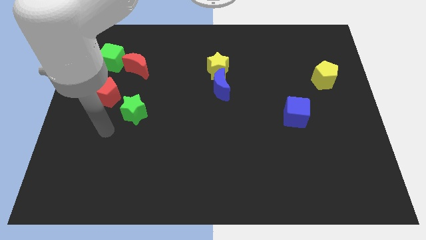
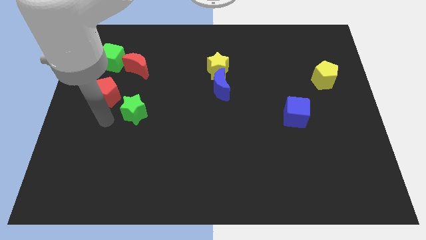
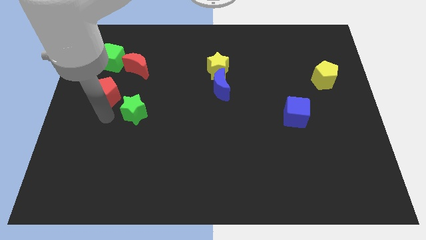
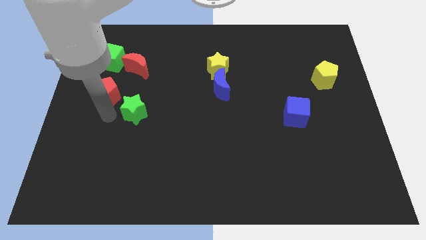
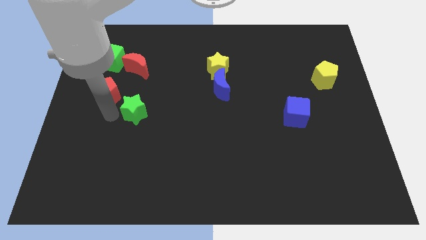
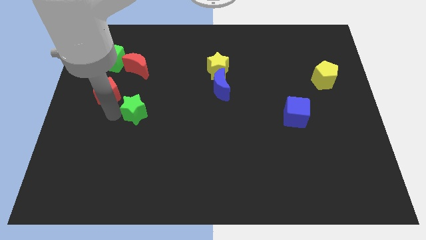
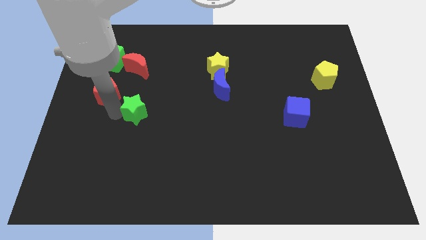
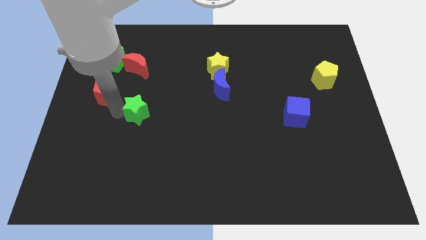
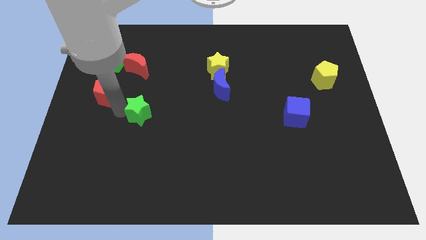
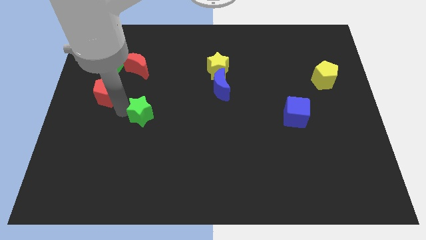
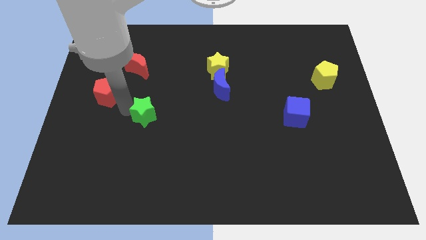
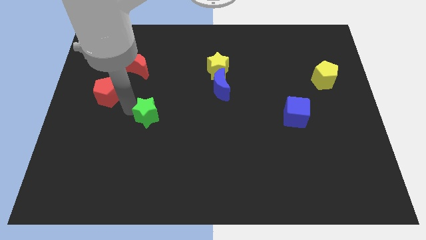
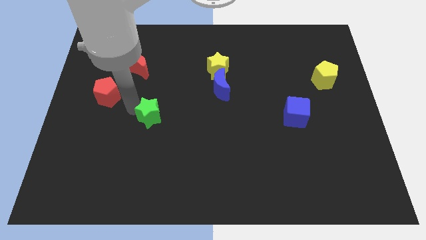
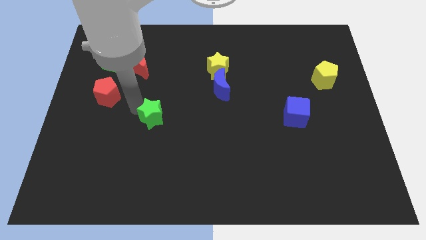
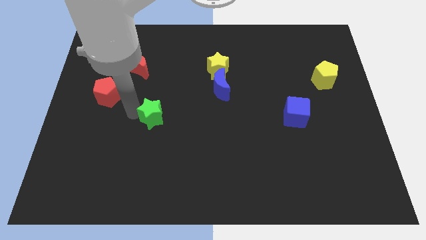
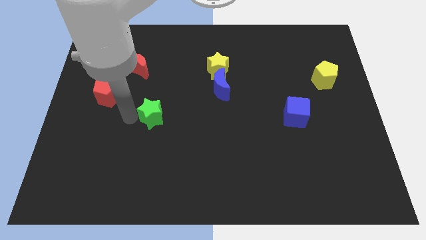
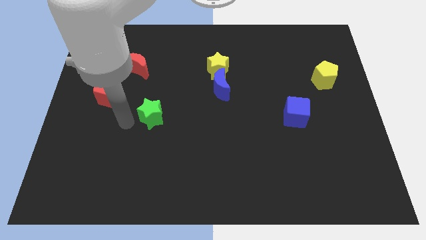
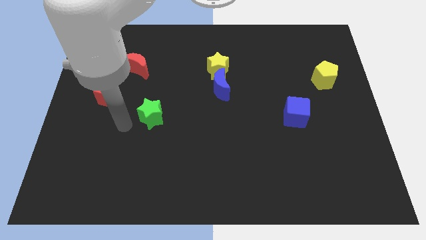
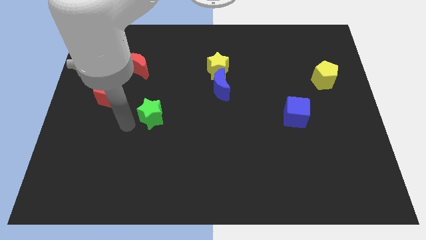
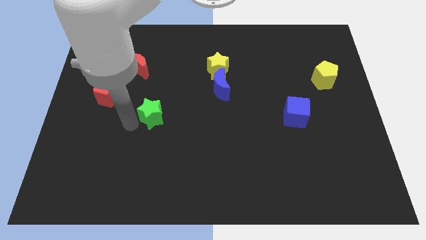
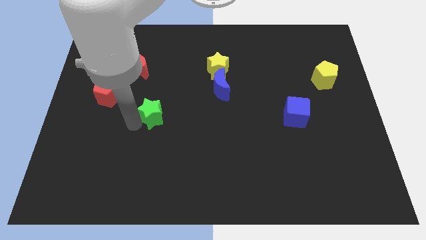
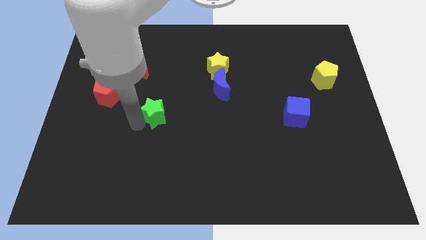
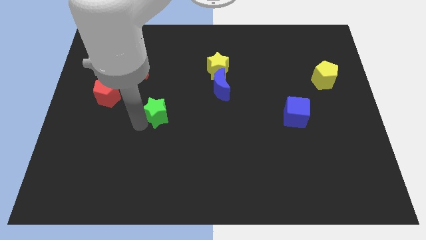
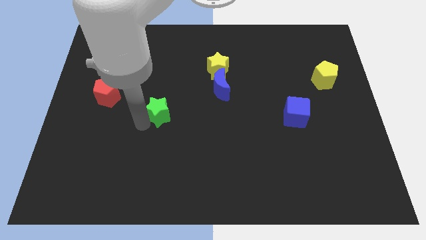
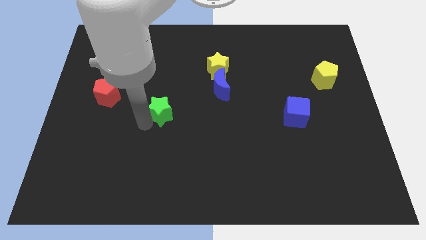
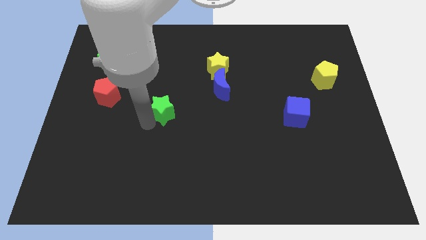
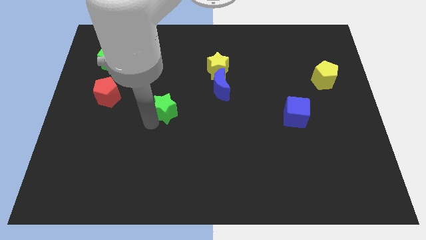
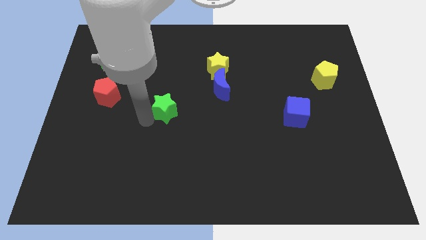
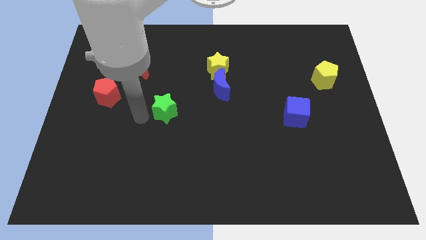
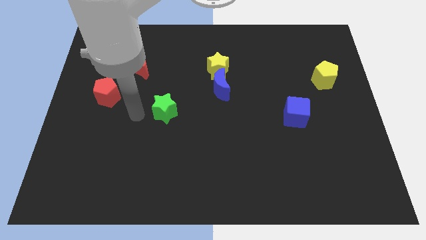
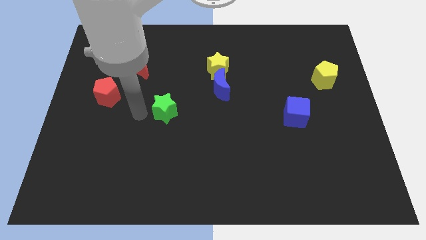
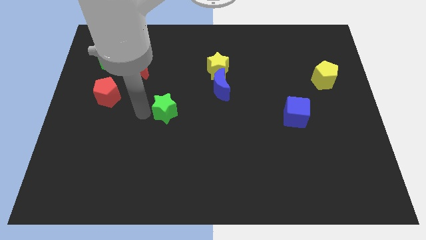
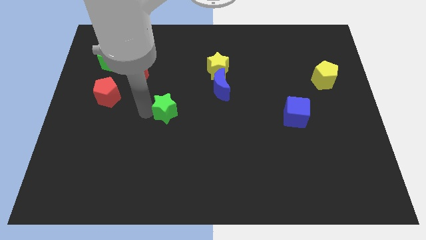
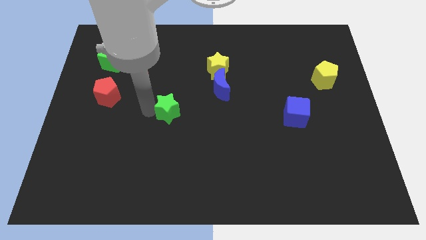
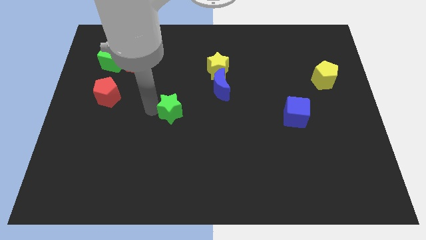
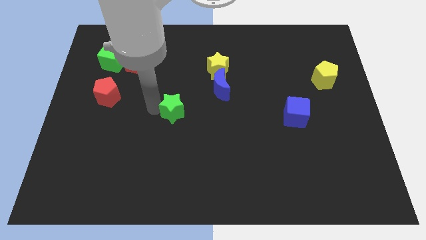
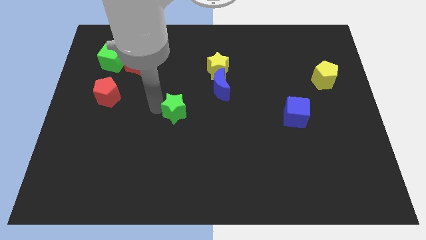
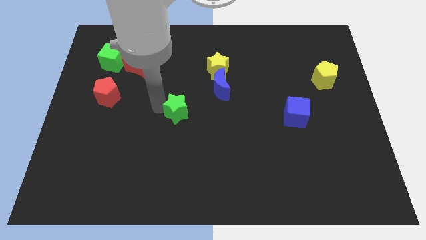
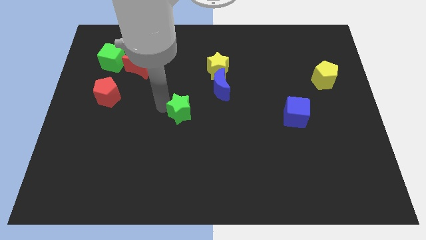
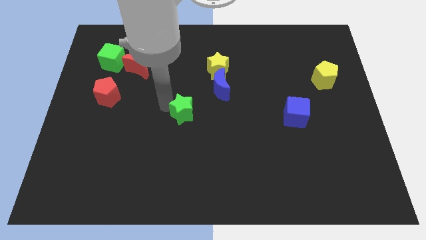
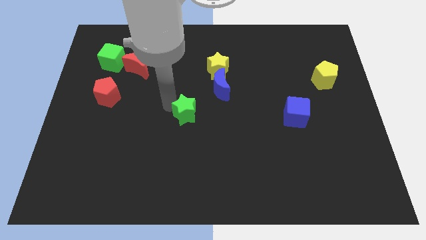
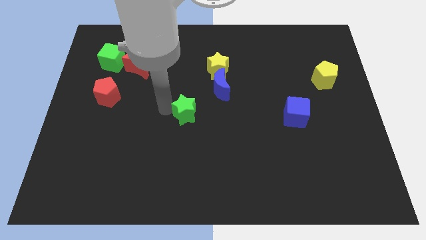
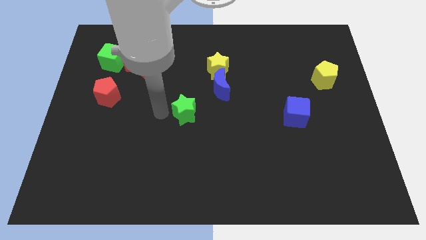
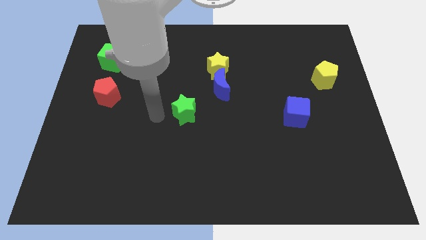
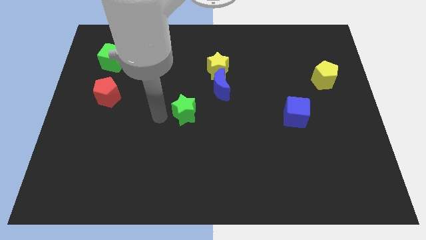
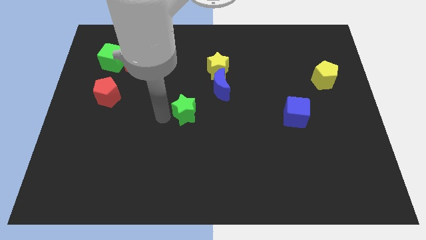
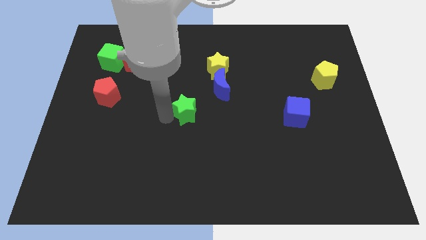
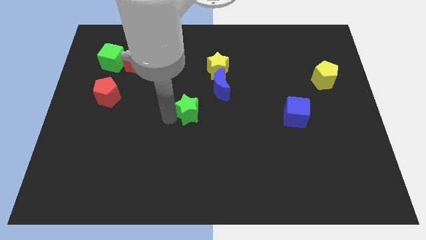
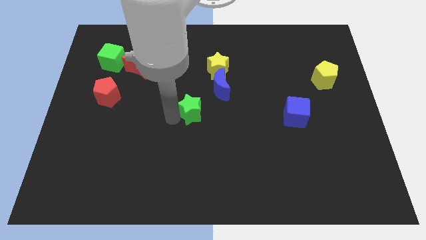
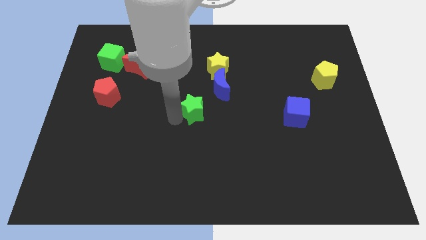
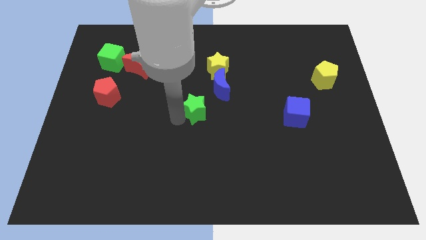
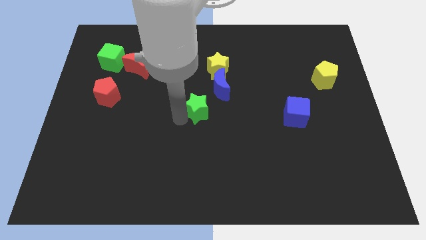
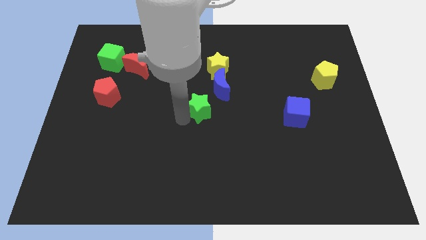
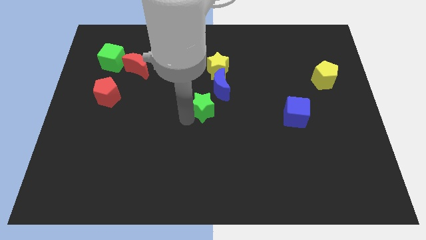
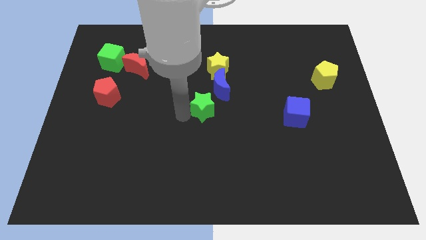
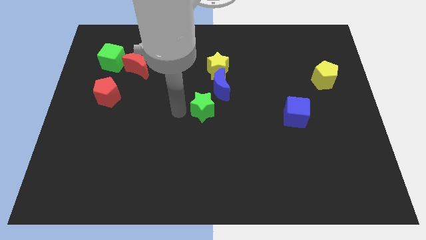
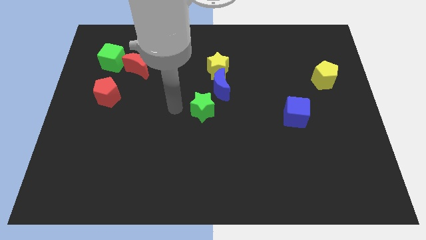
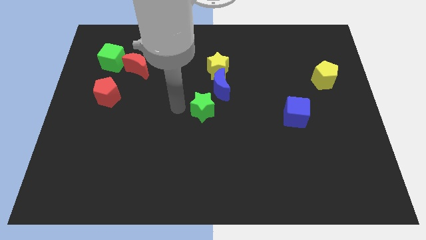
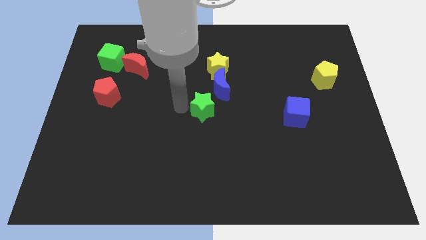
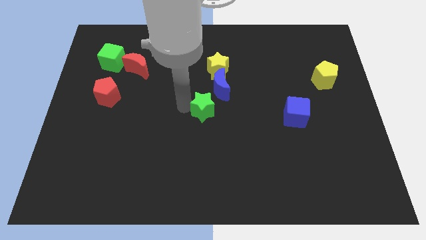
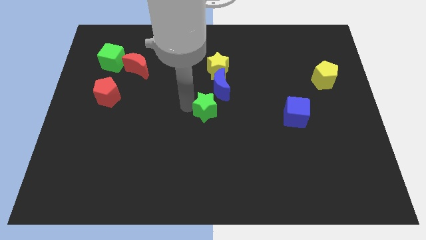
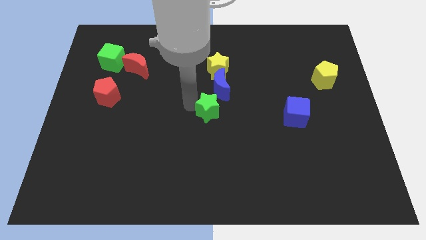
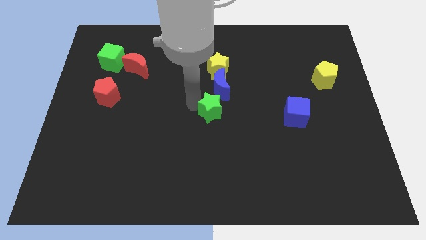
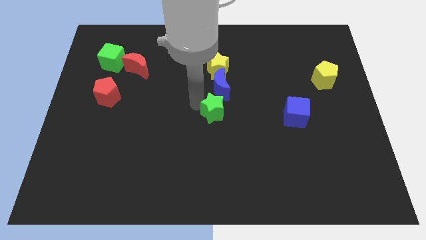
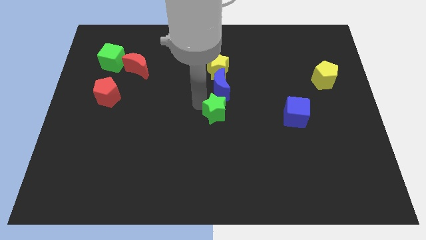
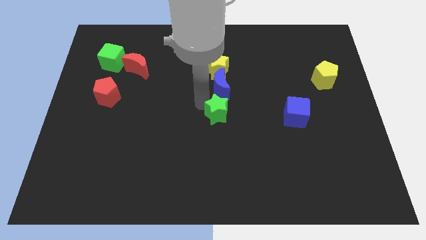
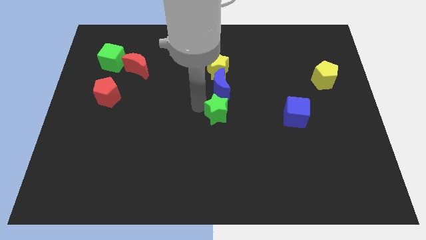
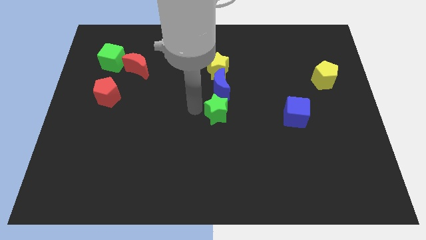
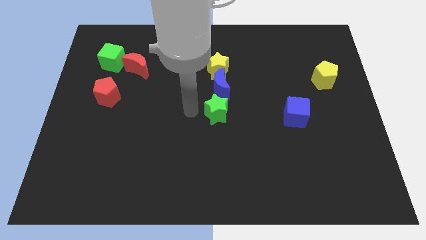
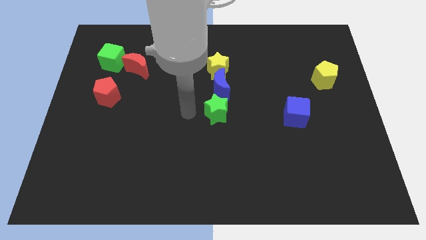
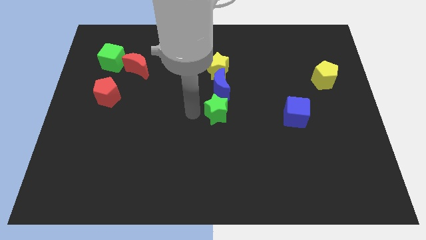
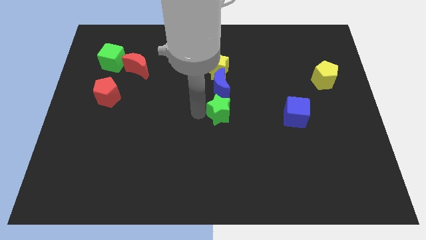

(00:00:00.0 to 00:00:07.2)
slide the green star to the right

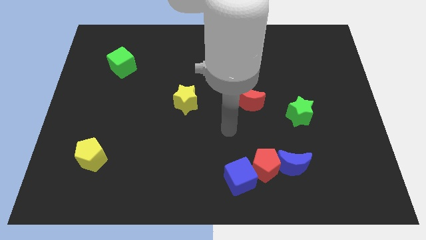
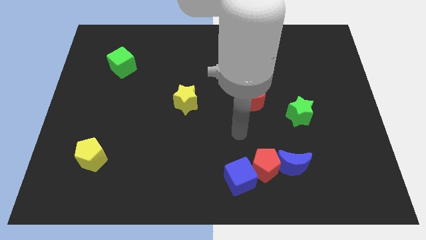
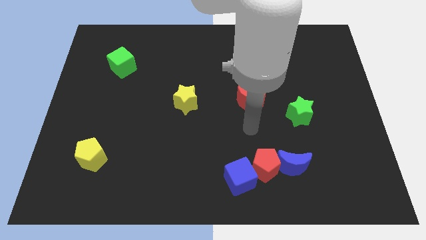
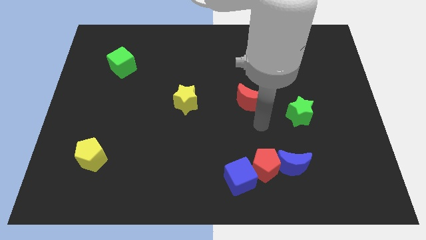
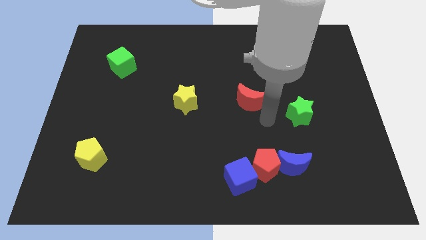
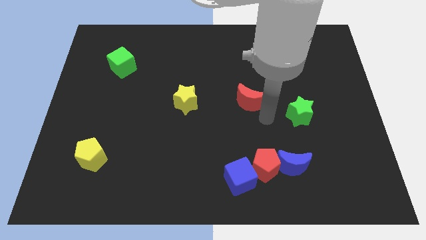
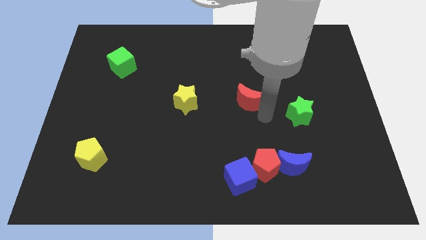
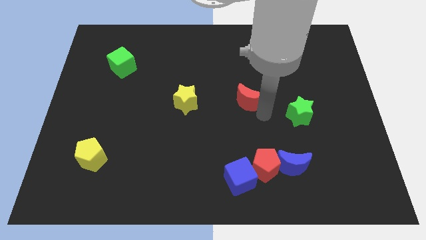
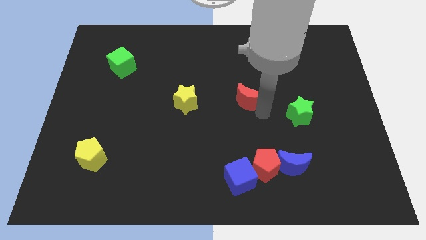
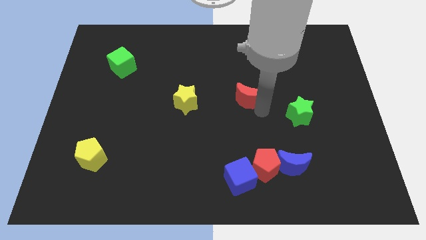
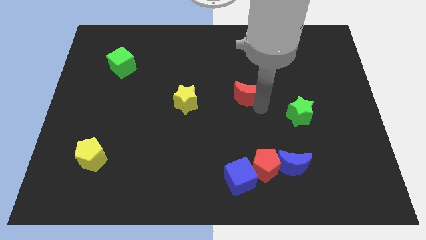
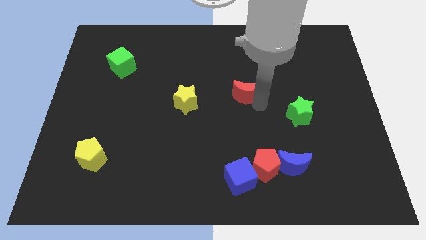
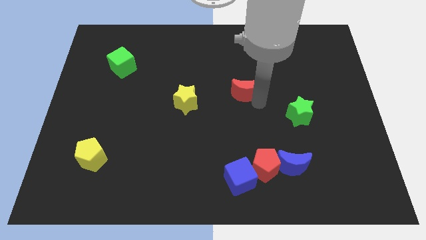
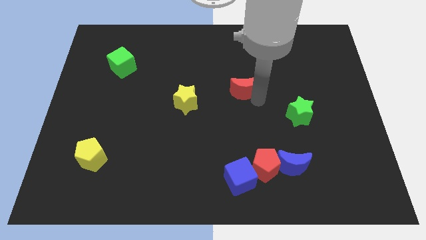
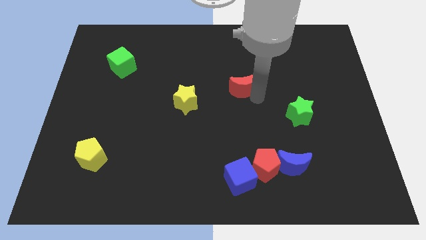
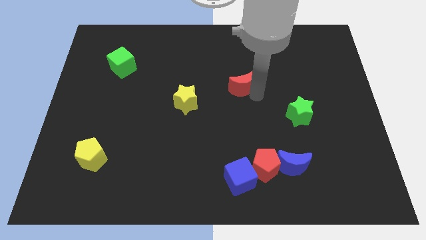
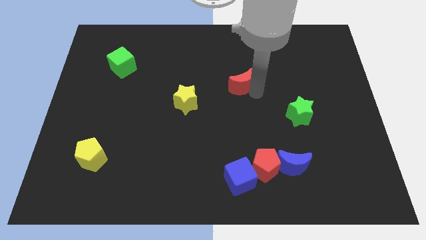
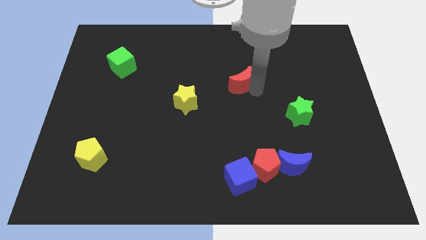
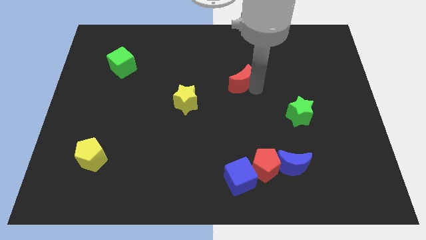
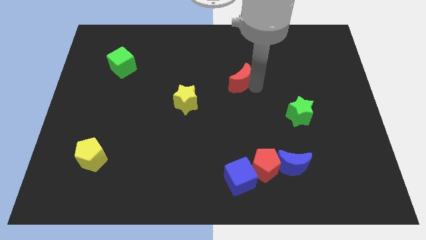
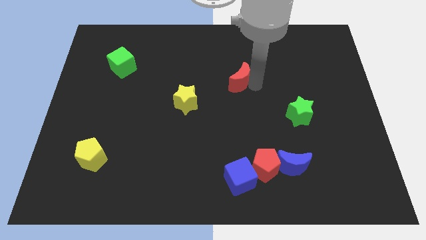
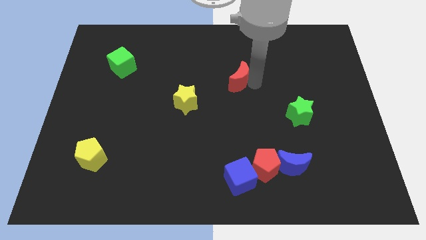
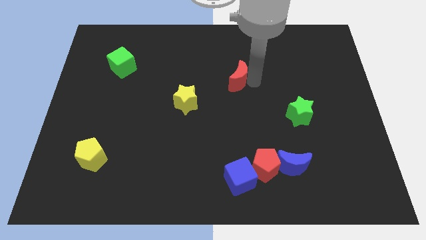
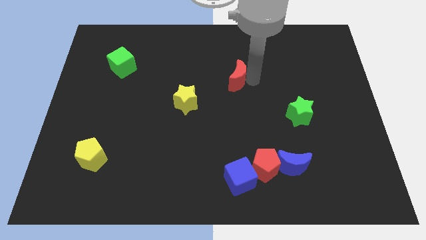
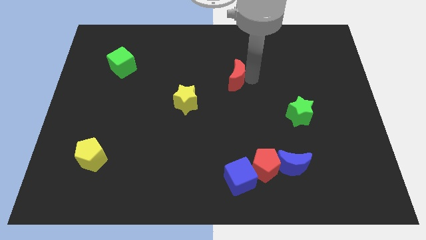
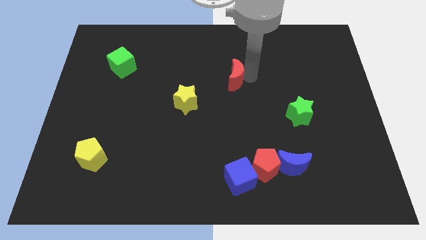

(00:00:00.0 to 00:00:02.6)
move the red moon diagonally upwards and to the left a little
